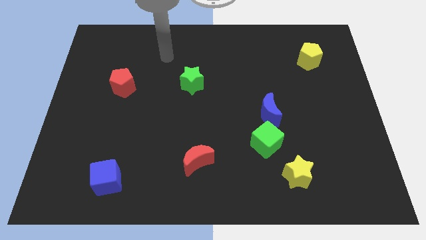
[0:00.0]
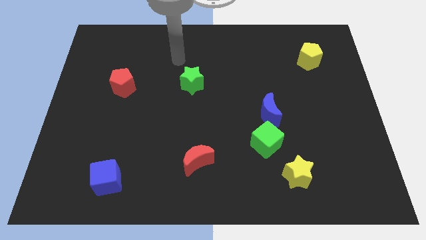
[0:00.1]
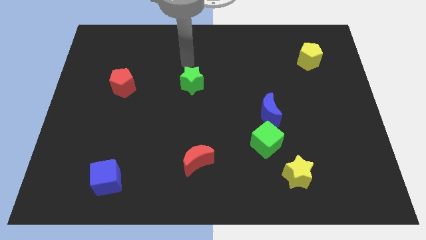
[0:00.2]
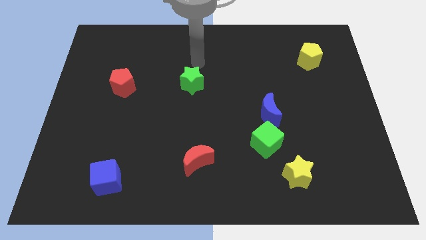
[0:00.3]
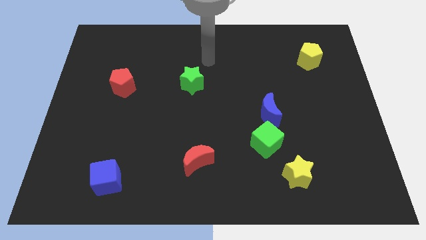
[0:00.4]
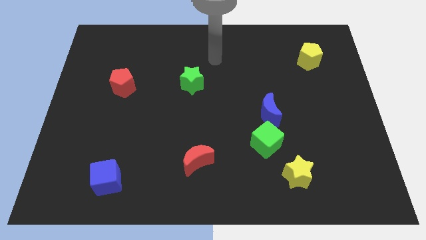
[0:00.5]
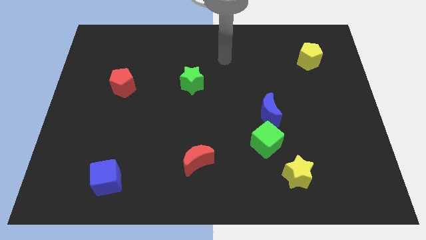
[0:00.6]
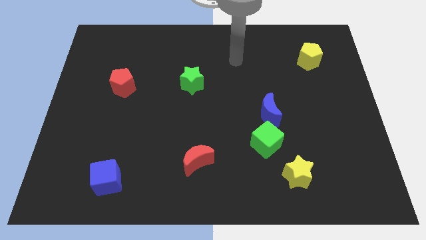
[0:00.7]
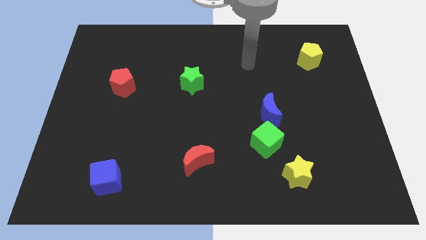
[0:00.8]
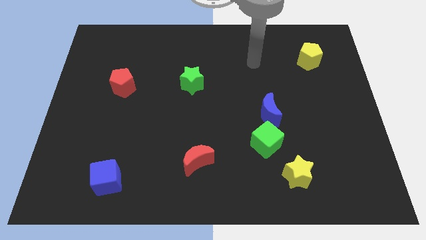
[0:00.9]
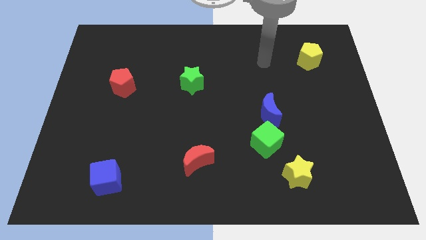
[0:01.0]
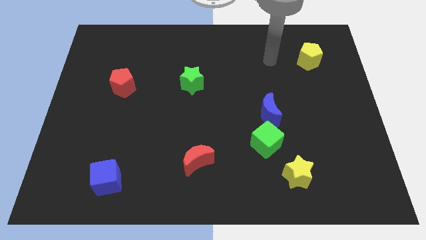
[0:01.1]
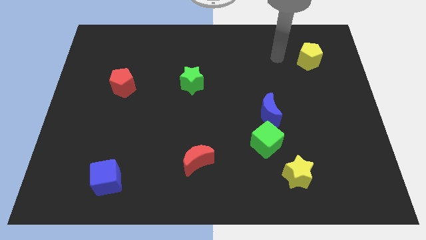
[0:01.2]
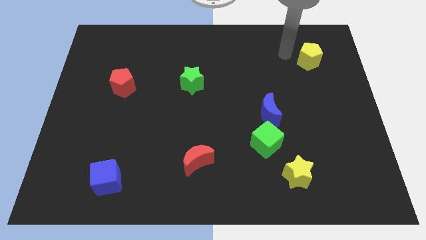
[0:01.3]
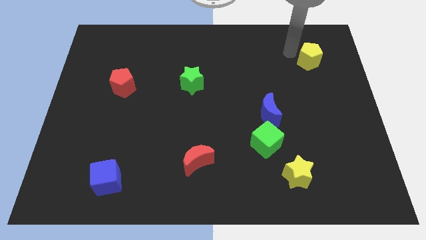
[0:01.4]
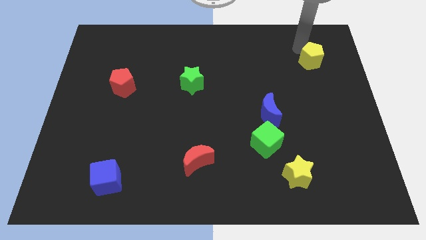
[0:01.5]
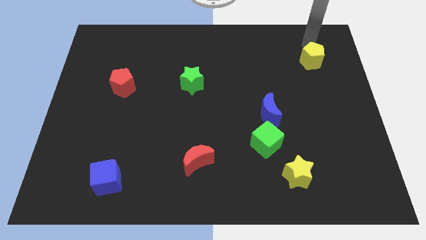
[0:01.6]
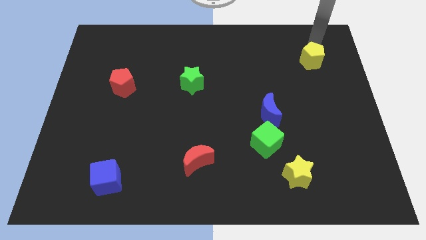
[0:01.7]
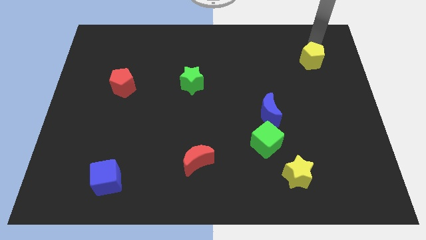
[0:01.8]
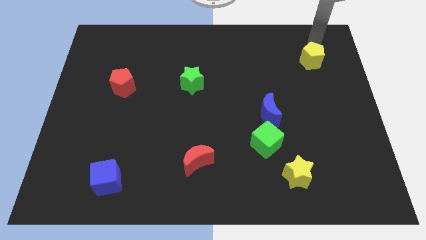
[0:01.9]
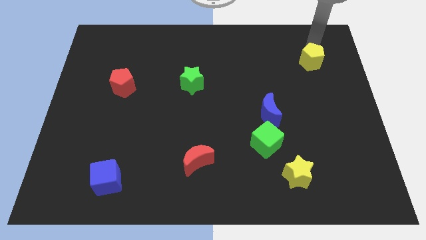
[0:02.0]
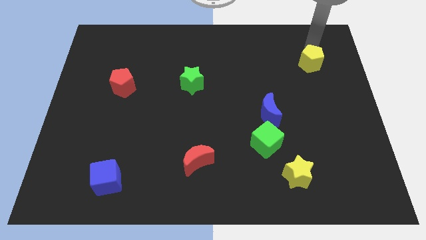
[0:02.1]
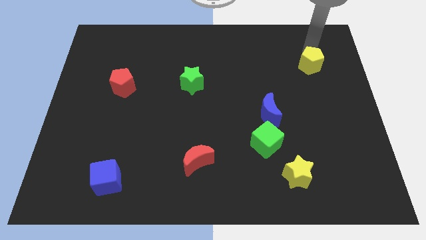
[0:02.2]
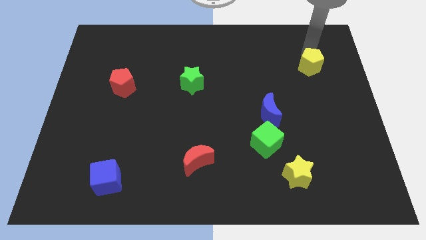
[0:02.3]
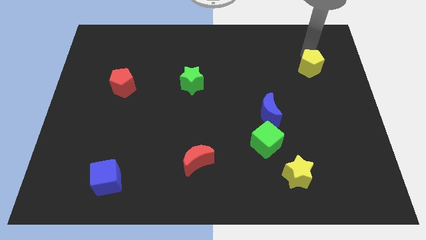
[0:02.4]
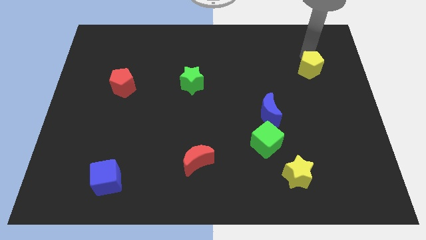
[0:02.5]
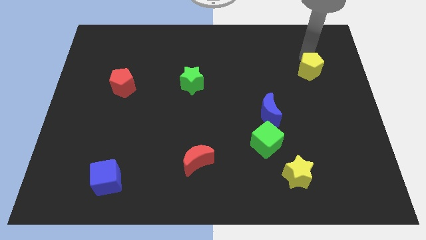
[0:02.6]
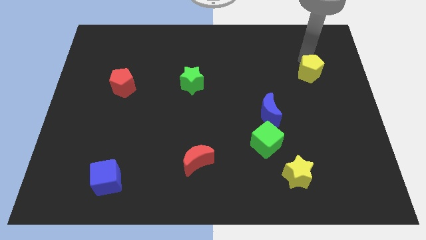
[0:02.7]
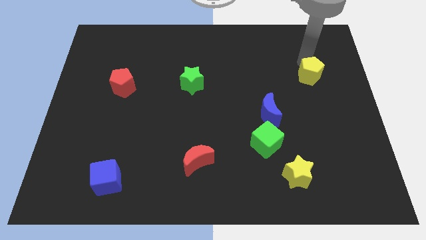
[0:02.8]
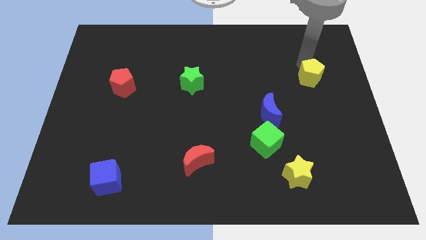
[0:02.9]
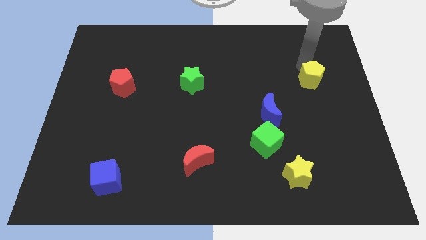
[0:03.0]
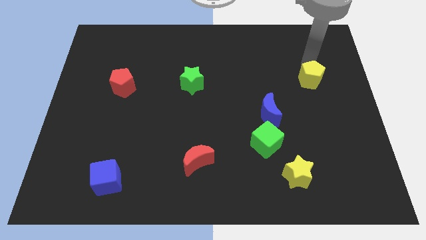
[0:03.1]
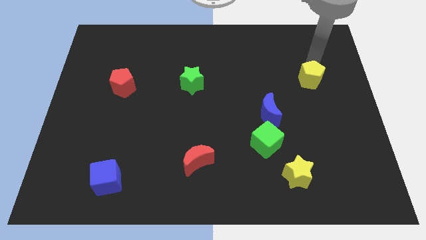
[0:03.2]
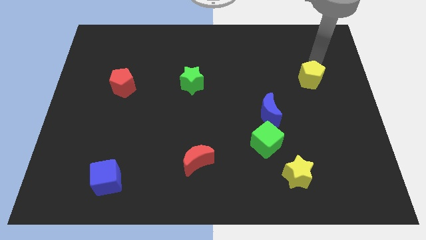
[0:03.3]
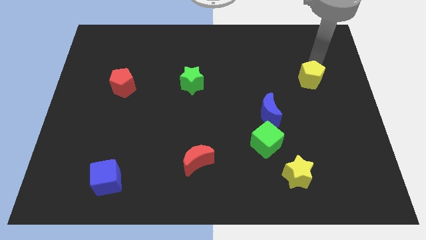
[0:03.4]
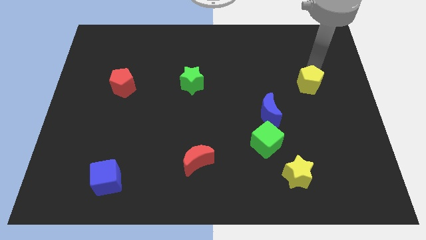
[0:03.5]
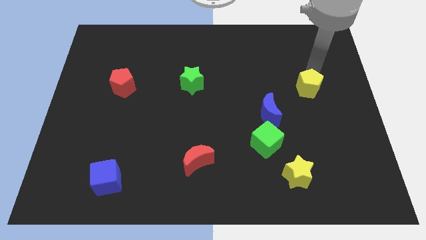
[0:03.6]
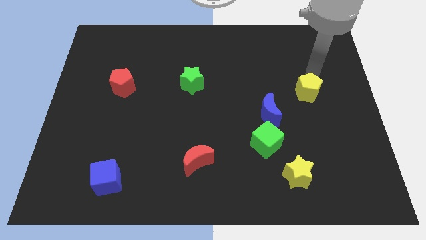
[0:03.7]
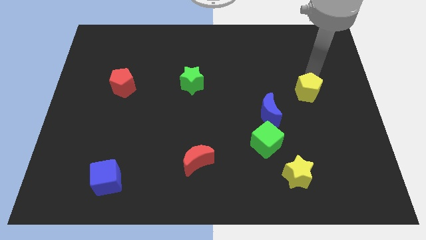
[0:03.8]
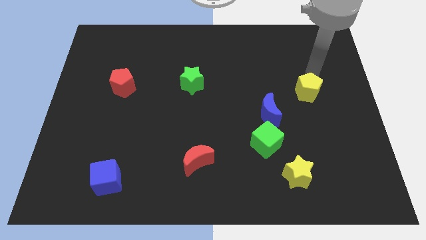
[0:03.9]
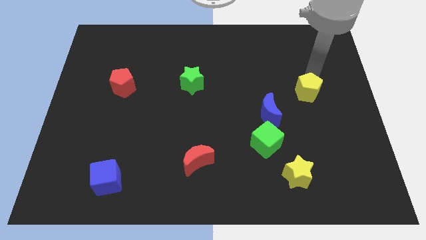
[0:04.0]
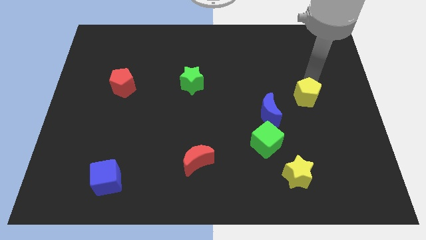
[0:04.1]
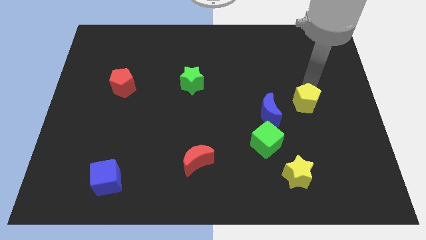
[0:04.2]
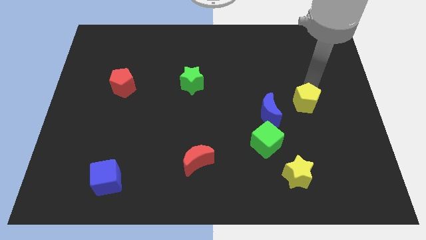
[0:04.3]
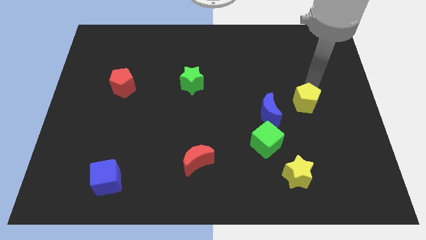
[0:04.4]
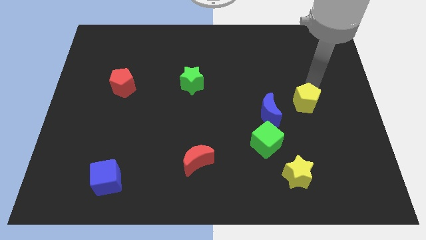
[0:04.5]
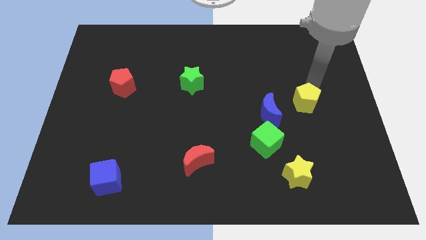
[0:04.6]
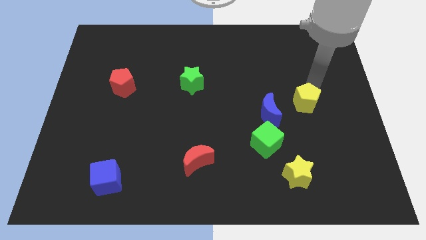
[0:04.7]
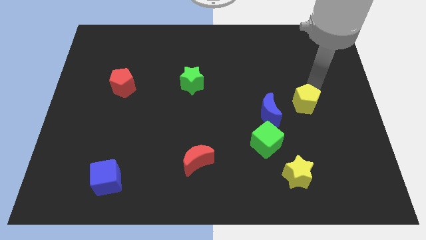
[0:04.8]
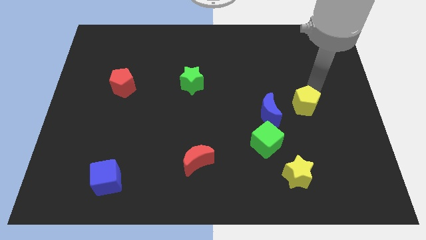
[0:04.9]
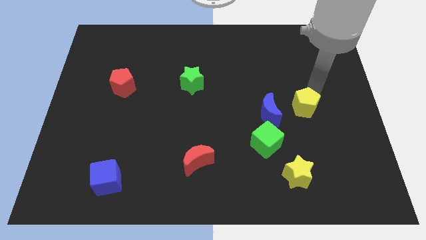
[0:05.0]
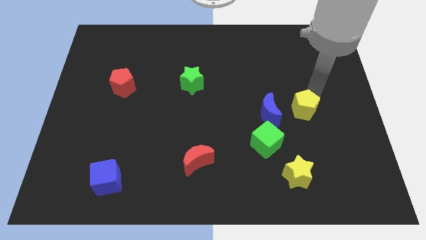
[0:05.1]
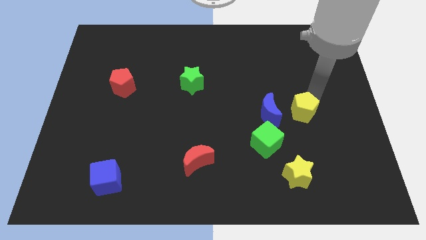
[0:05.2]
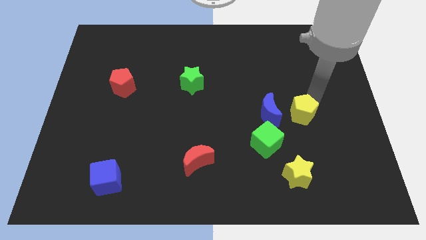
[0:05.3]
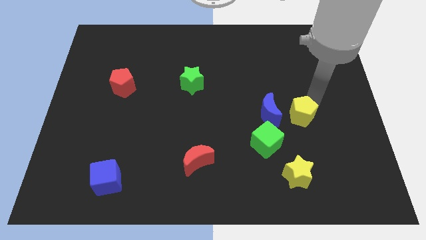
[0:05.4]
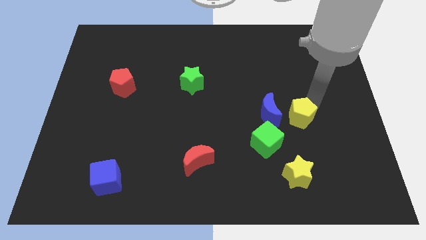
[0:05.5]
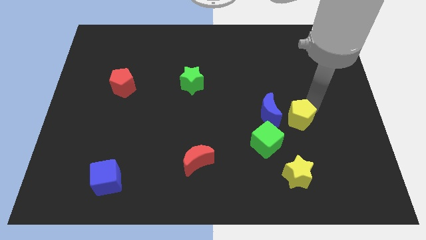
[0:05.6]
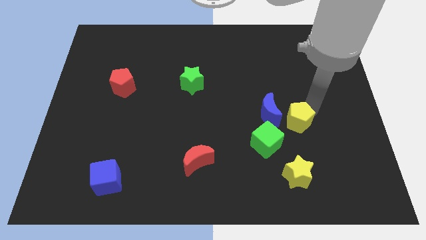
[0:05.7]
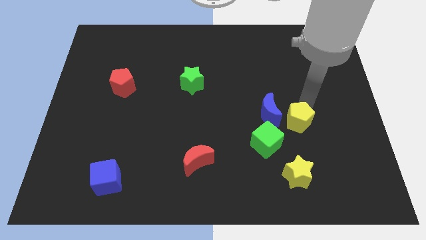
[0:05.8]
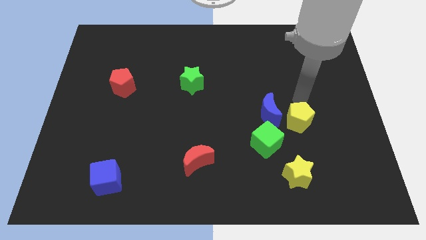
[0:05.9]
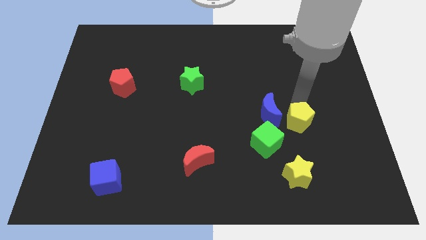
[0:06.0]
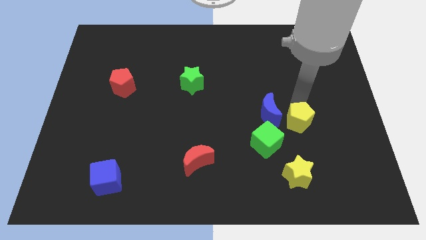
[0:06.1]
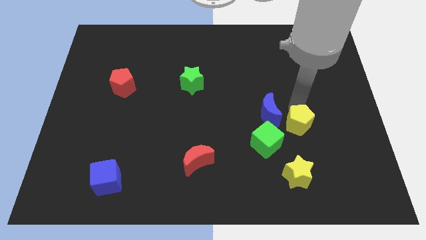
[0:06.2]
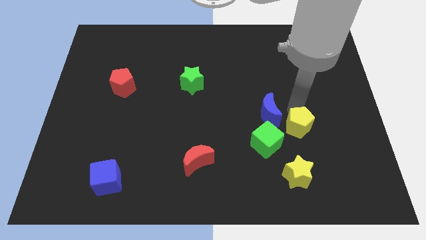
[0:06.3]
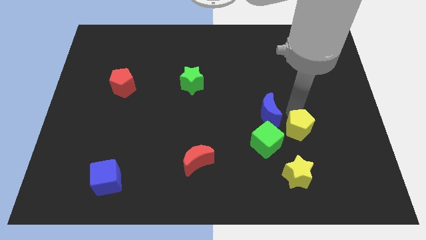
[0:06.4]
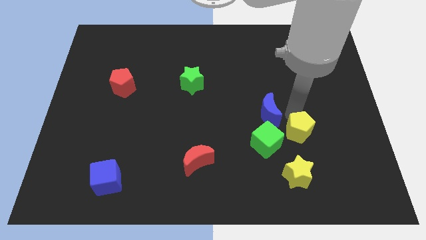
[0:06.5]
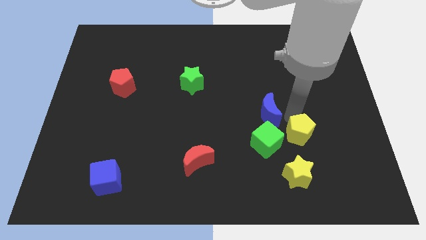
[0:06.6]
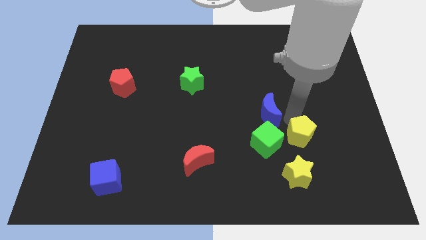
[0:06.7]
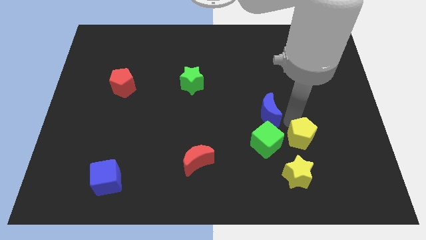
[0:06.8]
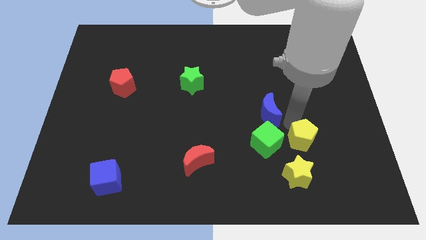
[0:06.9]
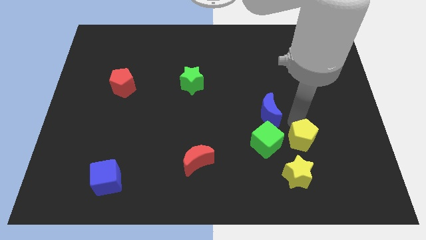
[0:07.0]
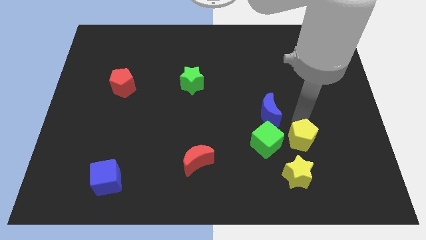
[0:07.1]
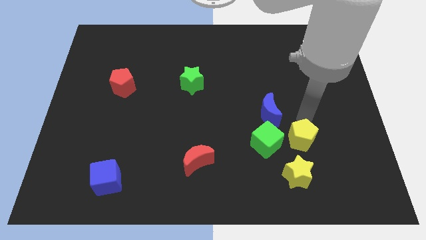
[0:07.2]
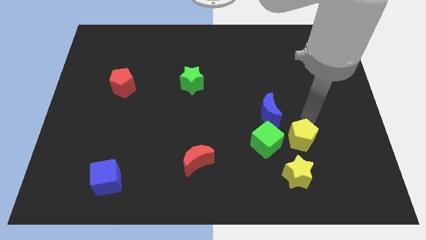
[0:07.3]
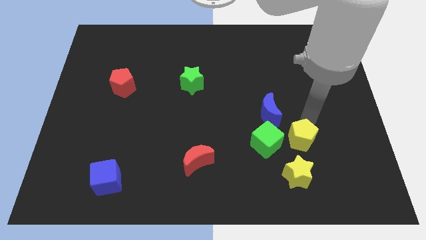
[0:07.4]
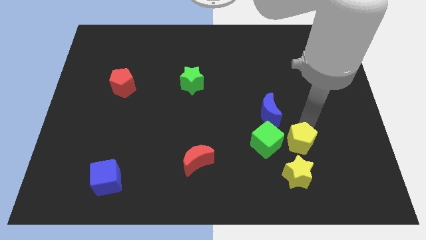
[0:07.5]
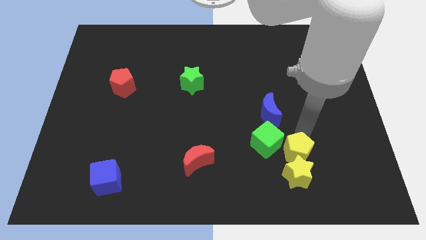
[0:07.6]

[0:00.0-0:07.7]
move the yellow pentagon next to the yellow star
